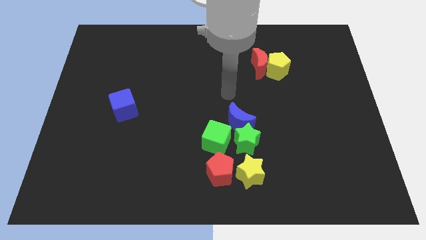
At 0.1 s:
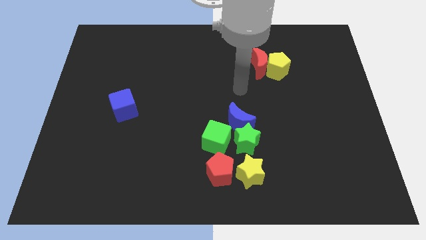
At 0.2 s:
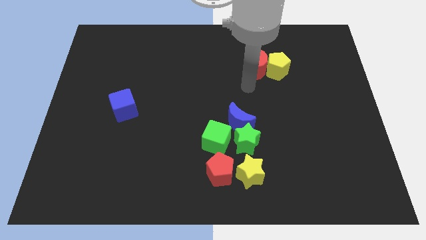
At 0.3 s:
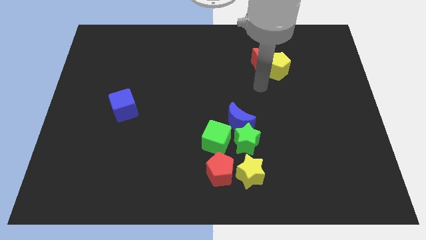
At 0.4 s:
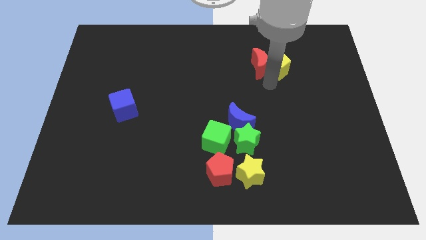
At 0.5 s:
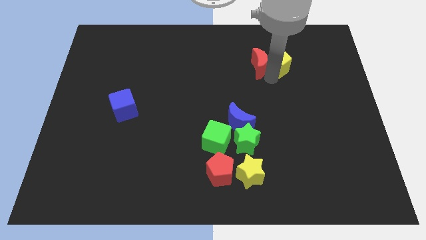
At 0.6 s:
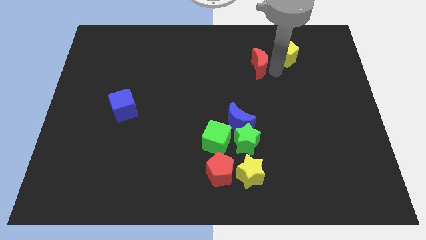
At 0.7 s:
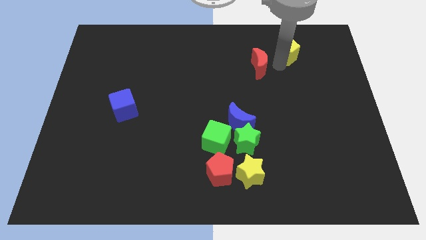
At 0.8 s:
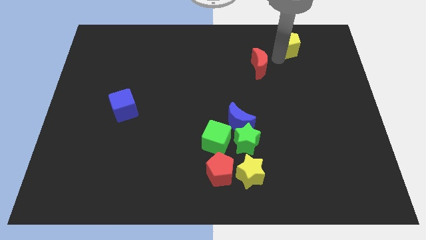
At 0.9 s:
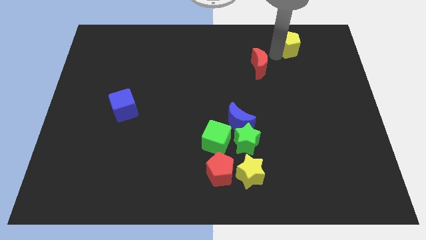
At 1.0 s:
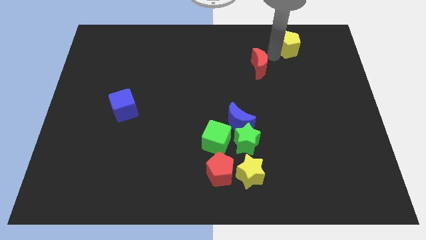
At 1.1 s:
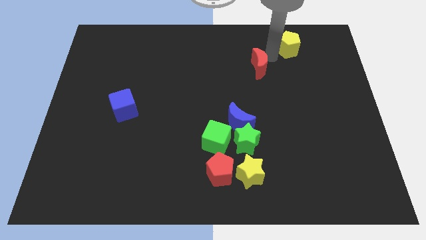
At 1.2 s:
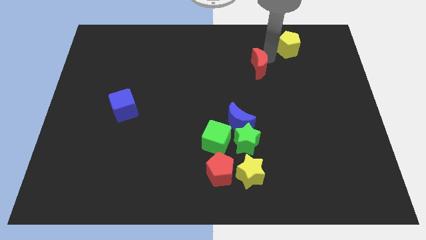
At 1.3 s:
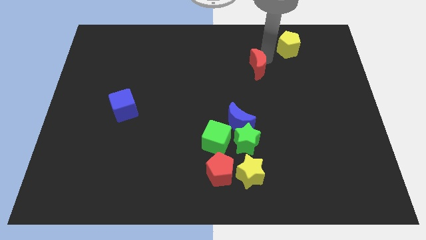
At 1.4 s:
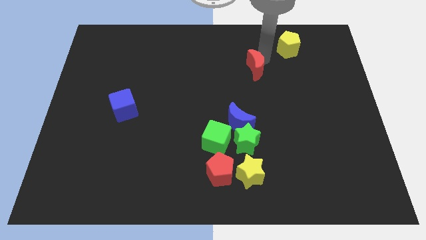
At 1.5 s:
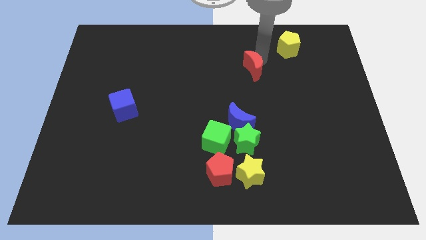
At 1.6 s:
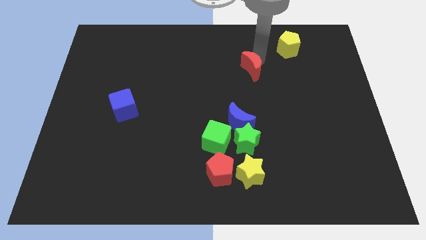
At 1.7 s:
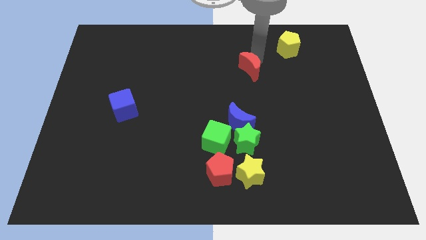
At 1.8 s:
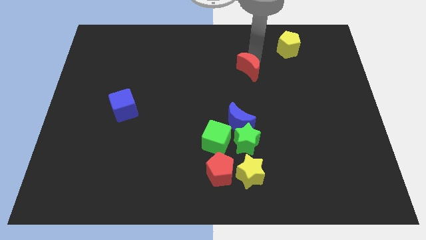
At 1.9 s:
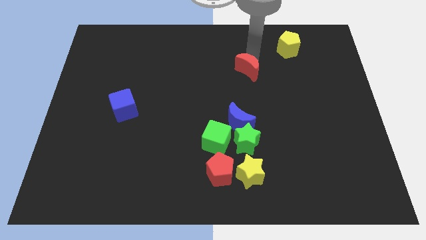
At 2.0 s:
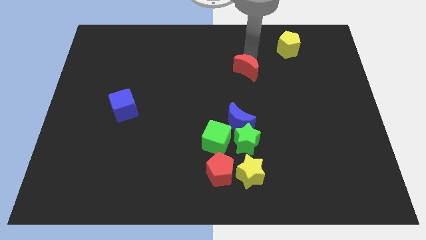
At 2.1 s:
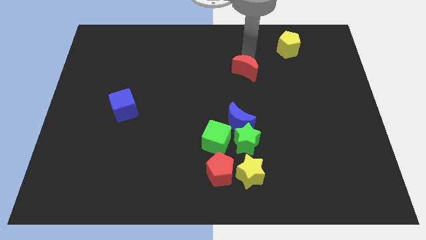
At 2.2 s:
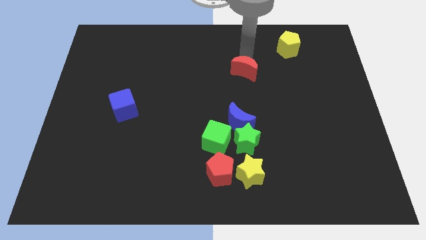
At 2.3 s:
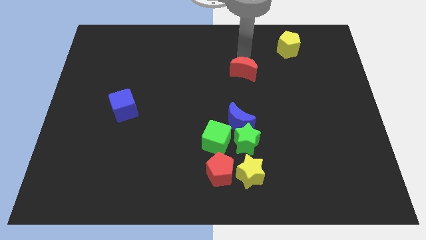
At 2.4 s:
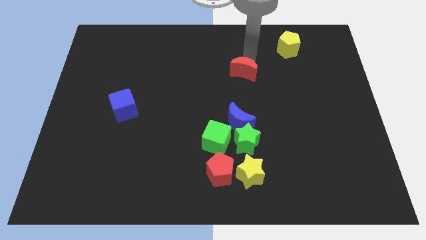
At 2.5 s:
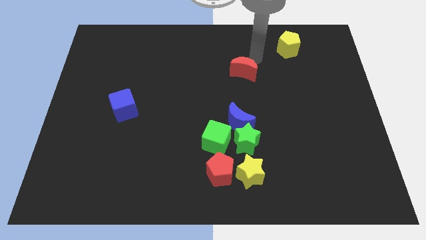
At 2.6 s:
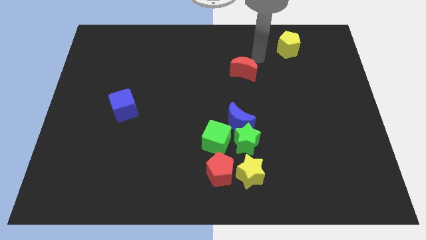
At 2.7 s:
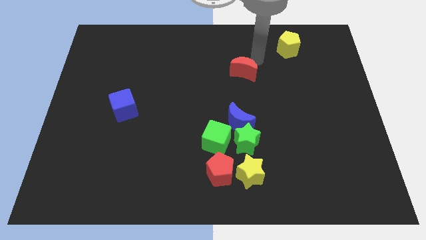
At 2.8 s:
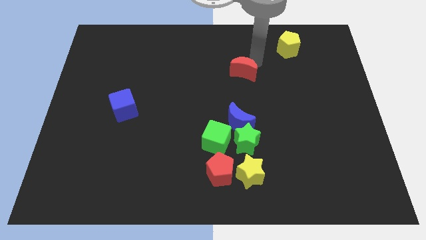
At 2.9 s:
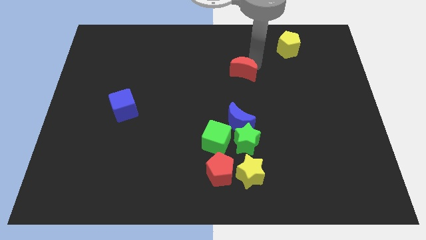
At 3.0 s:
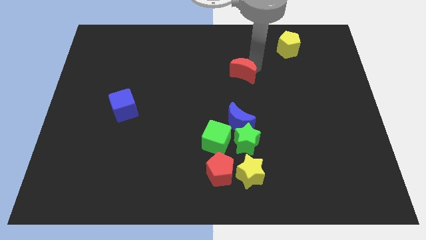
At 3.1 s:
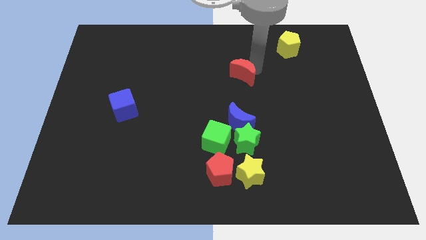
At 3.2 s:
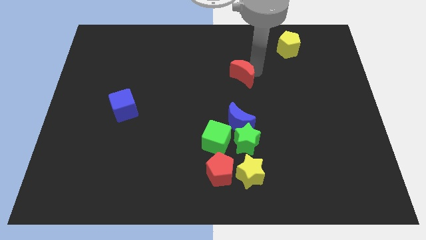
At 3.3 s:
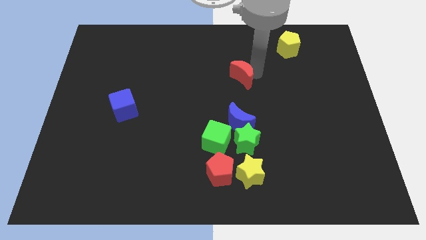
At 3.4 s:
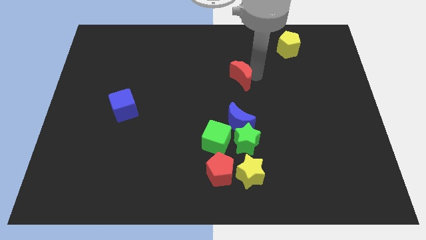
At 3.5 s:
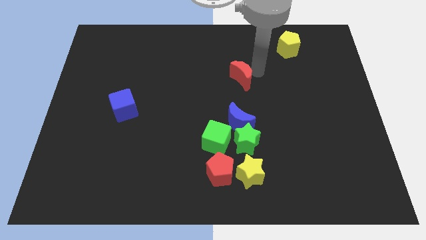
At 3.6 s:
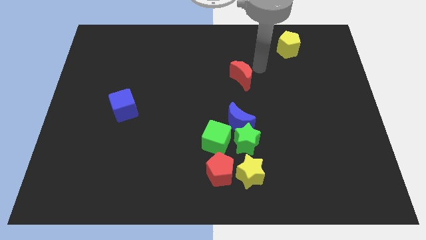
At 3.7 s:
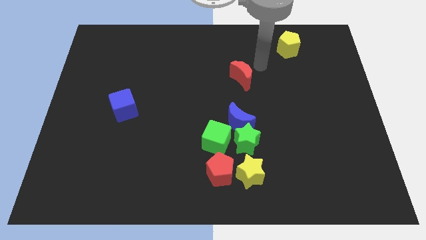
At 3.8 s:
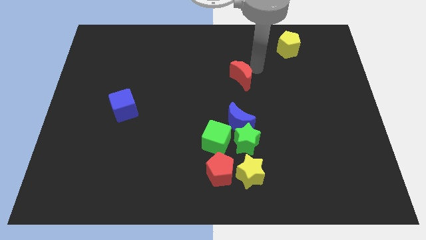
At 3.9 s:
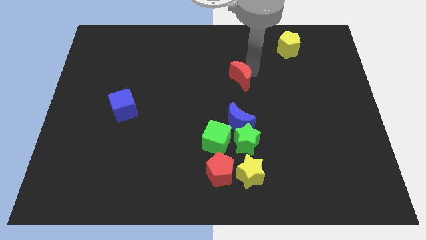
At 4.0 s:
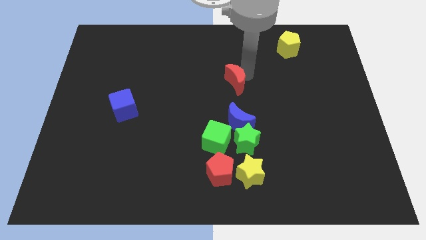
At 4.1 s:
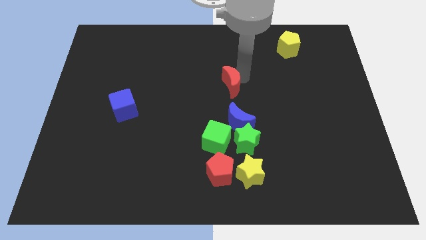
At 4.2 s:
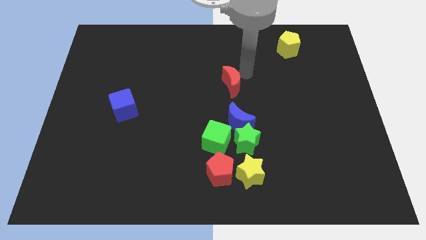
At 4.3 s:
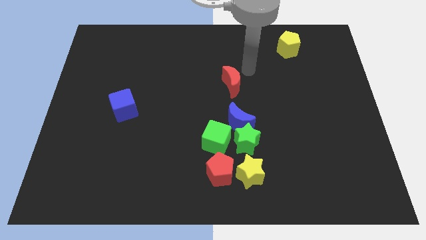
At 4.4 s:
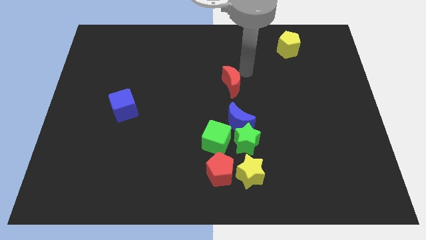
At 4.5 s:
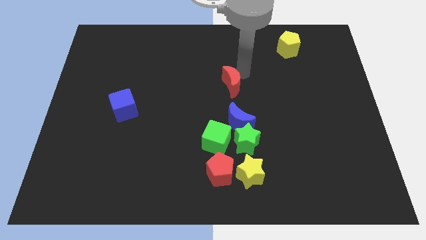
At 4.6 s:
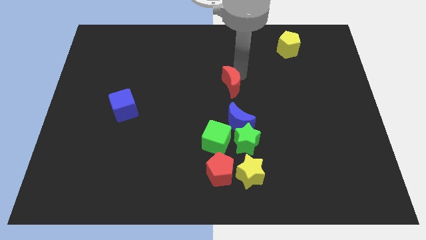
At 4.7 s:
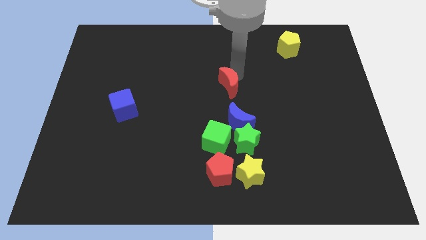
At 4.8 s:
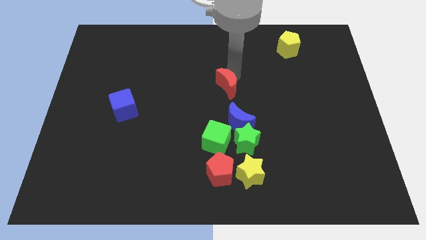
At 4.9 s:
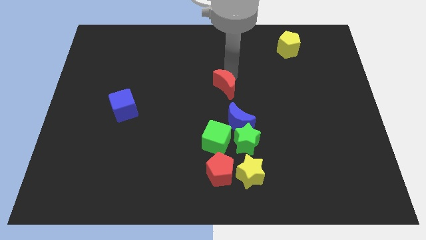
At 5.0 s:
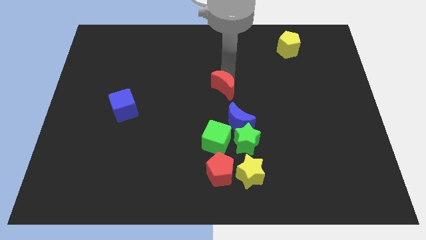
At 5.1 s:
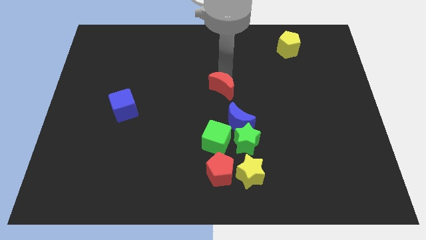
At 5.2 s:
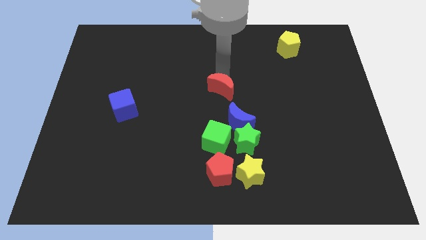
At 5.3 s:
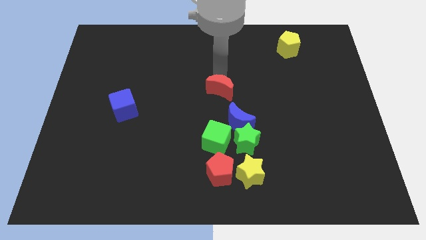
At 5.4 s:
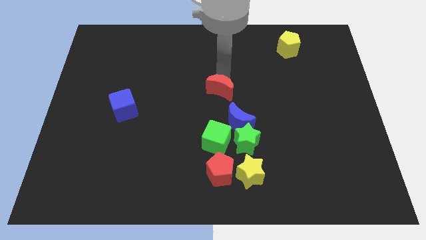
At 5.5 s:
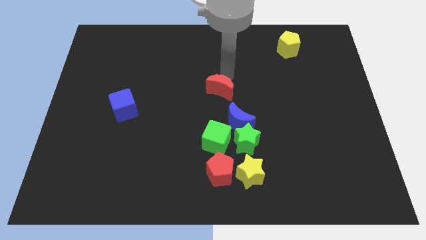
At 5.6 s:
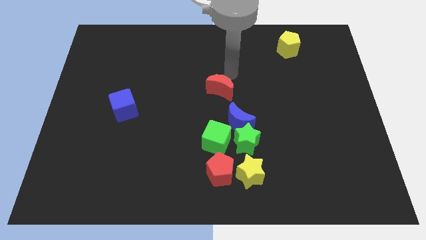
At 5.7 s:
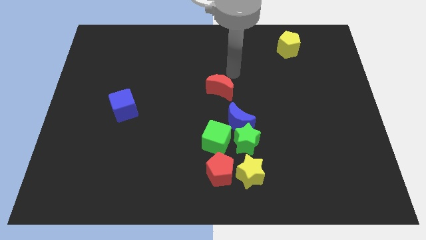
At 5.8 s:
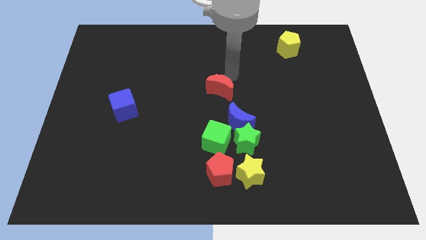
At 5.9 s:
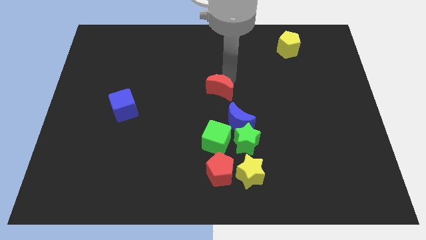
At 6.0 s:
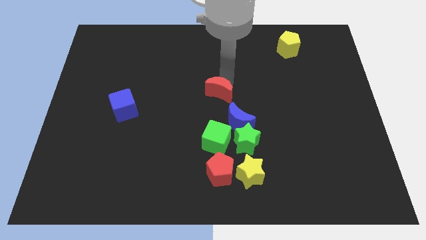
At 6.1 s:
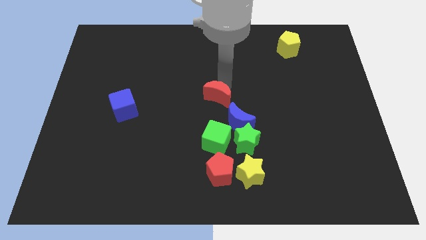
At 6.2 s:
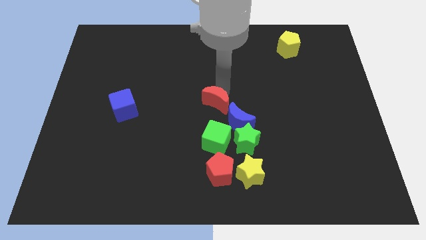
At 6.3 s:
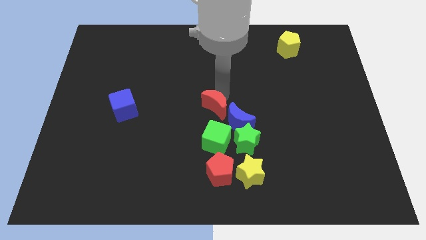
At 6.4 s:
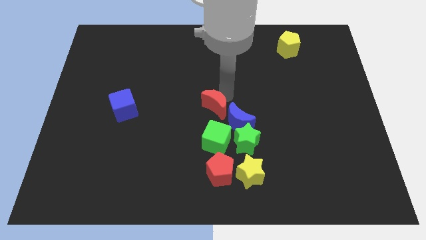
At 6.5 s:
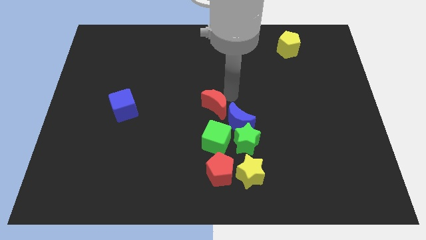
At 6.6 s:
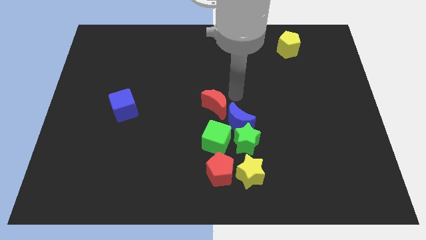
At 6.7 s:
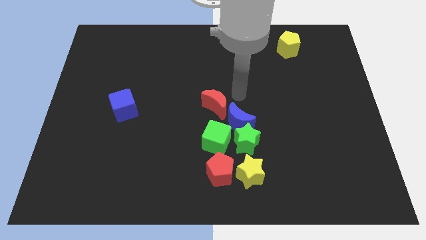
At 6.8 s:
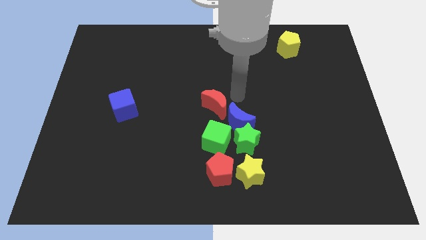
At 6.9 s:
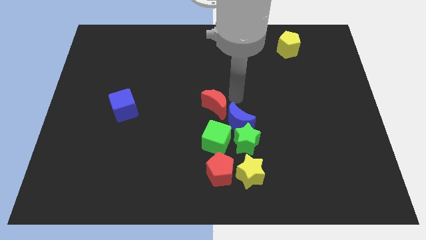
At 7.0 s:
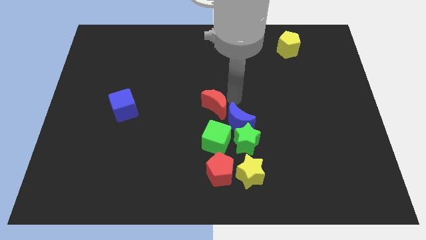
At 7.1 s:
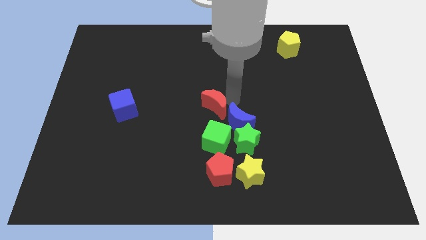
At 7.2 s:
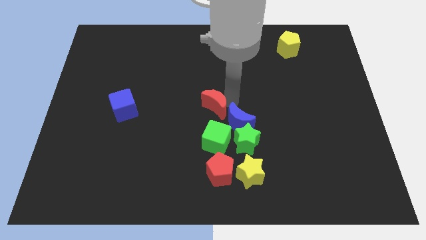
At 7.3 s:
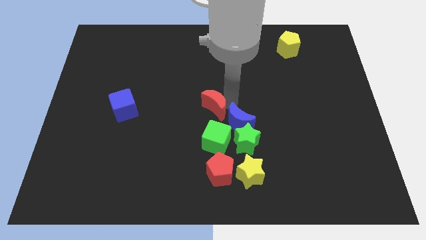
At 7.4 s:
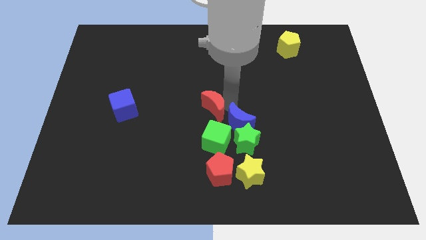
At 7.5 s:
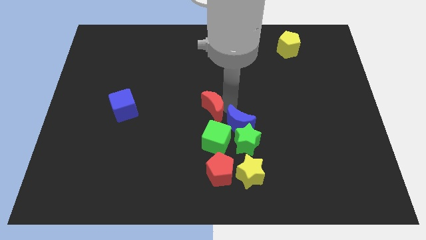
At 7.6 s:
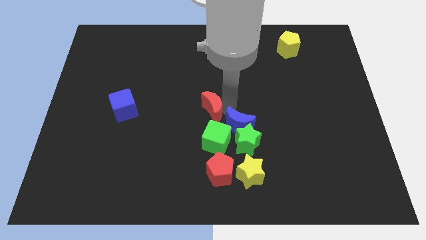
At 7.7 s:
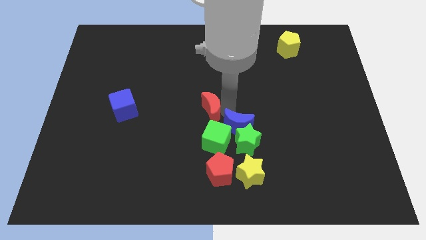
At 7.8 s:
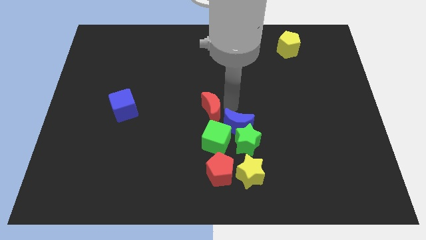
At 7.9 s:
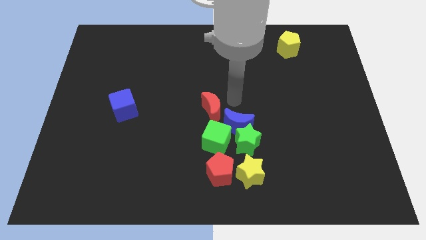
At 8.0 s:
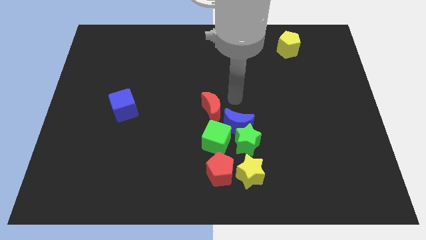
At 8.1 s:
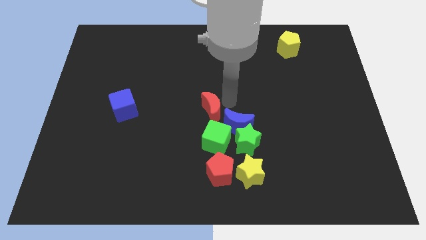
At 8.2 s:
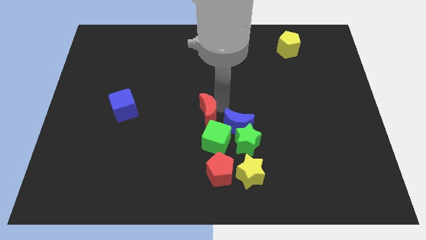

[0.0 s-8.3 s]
push the red moon downwards and left
